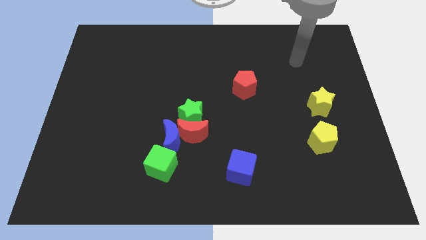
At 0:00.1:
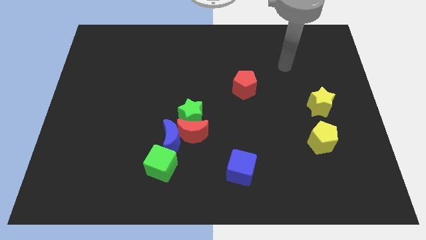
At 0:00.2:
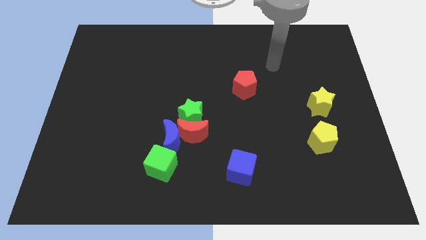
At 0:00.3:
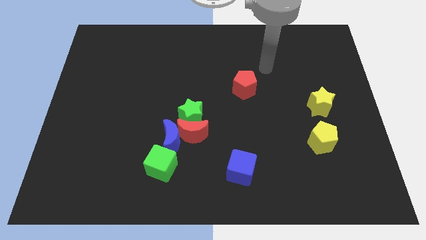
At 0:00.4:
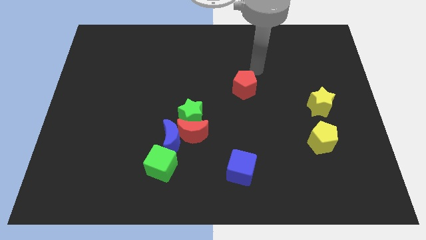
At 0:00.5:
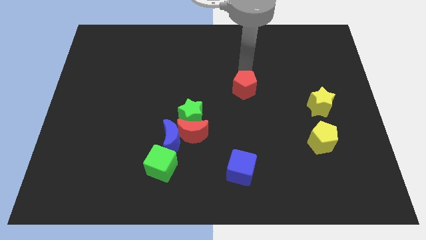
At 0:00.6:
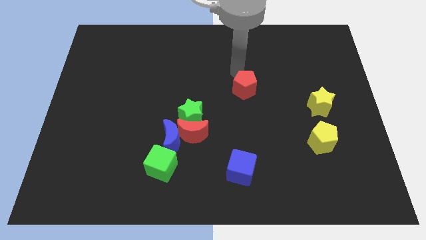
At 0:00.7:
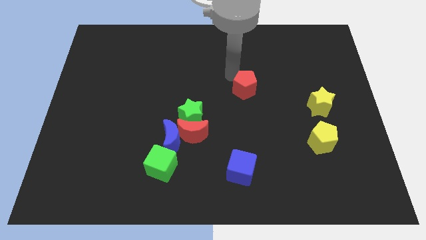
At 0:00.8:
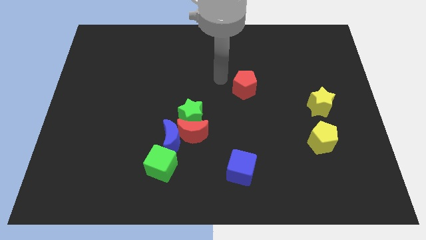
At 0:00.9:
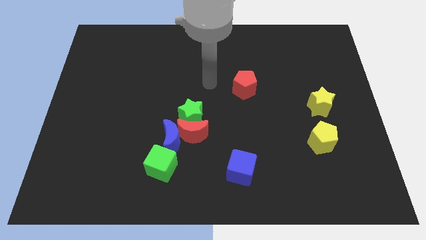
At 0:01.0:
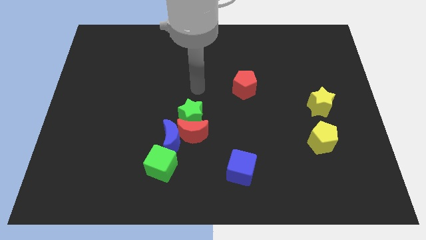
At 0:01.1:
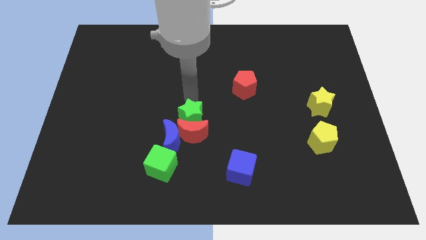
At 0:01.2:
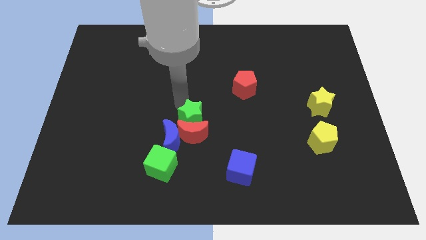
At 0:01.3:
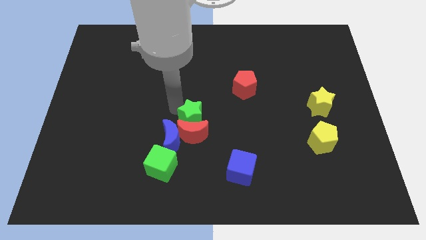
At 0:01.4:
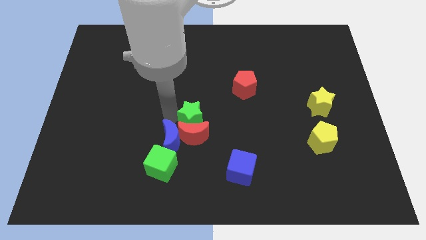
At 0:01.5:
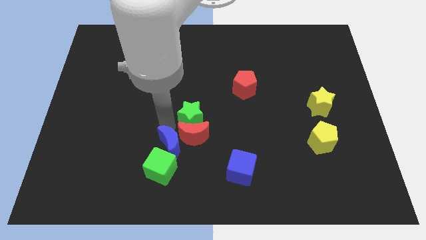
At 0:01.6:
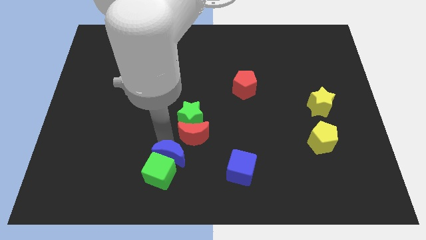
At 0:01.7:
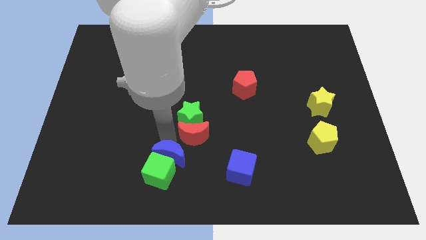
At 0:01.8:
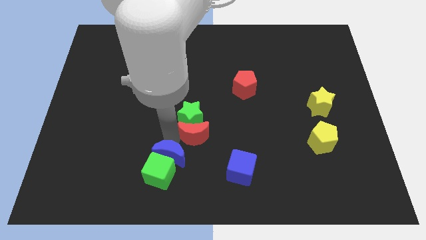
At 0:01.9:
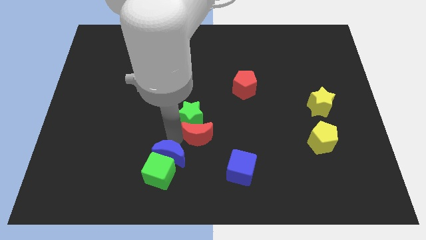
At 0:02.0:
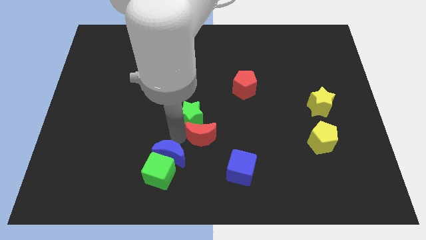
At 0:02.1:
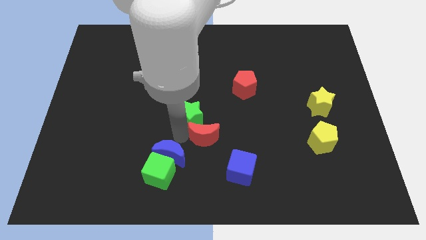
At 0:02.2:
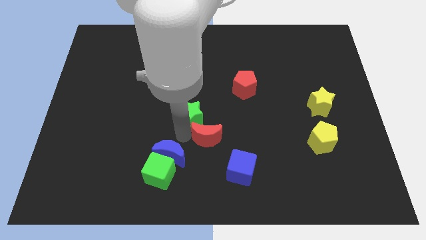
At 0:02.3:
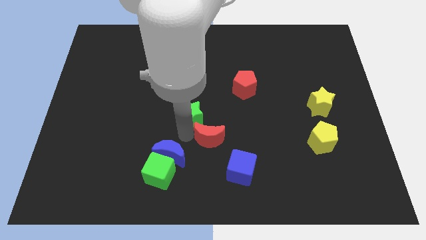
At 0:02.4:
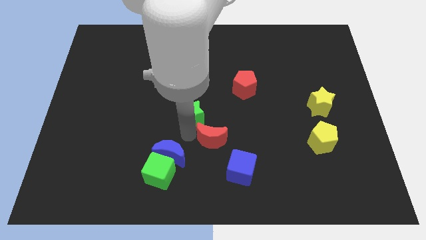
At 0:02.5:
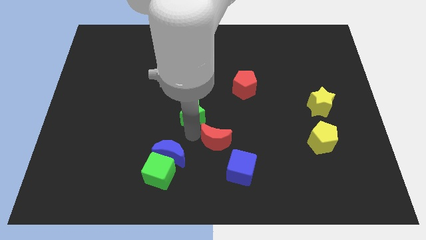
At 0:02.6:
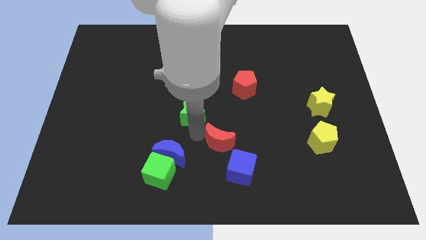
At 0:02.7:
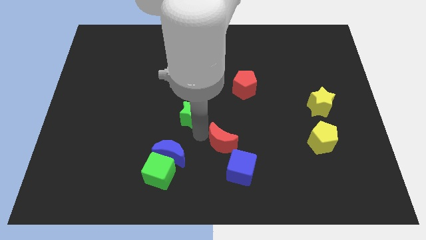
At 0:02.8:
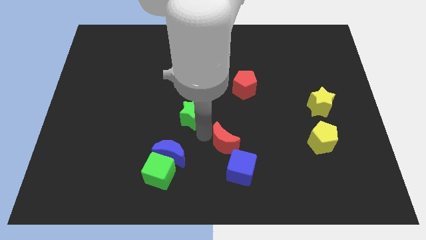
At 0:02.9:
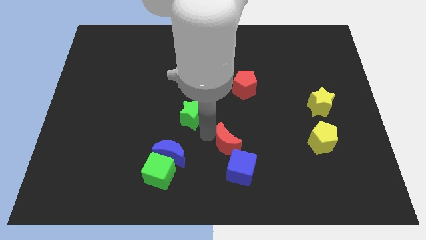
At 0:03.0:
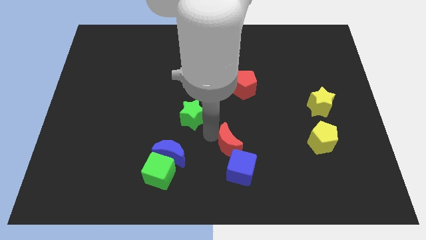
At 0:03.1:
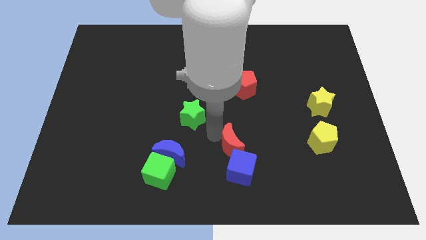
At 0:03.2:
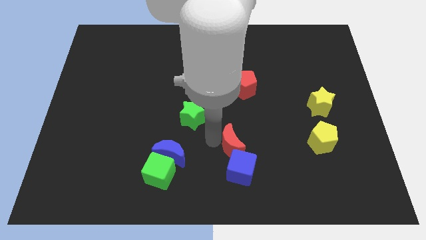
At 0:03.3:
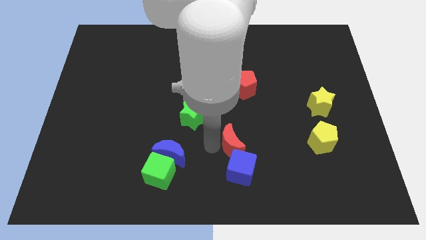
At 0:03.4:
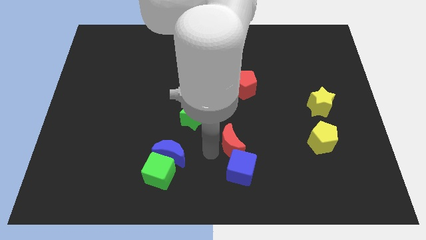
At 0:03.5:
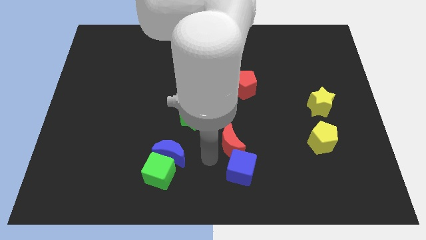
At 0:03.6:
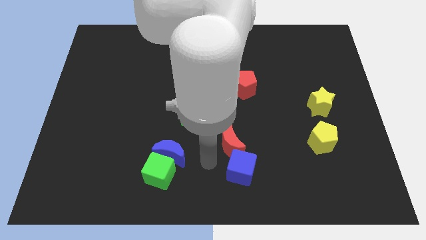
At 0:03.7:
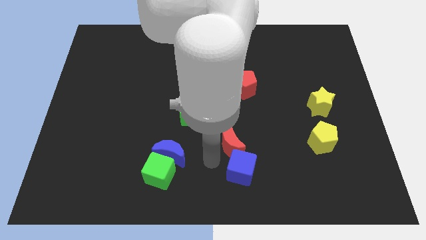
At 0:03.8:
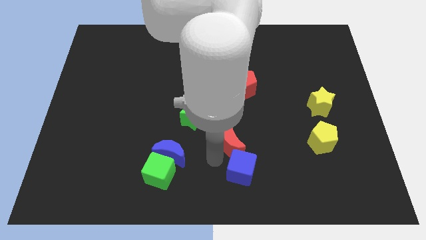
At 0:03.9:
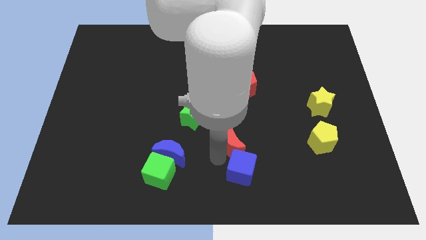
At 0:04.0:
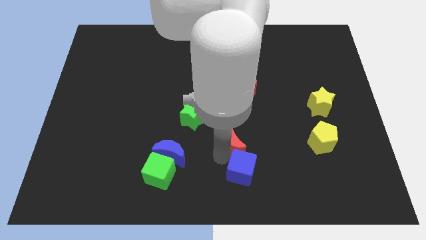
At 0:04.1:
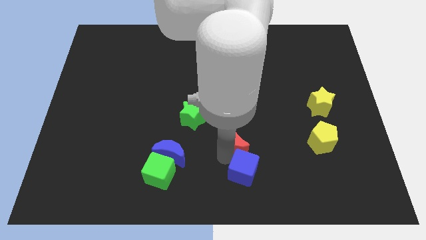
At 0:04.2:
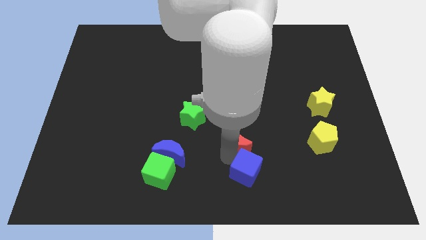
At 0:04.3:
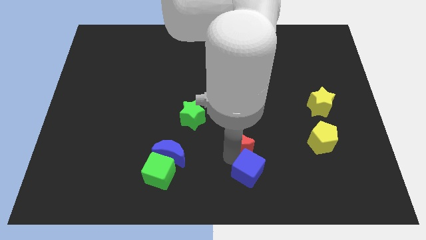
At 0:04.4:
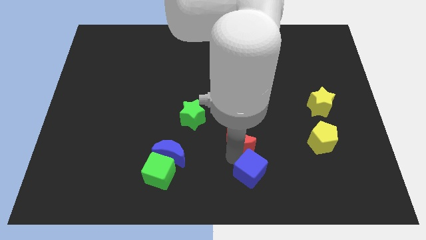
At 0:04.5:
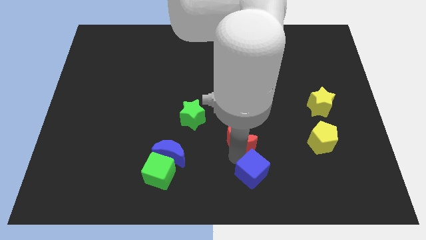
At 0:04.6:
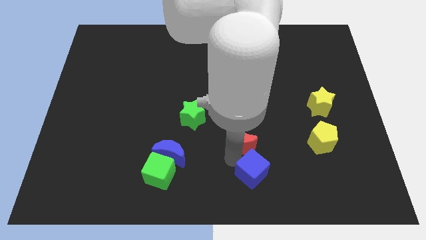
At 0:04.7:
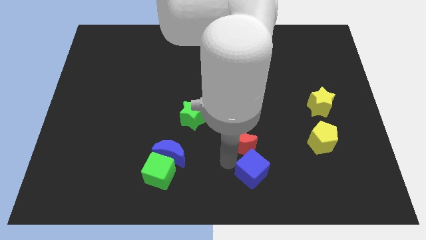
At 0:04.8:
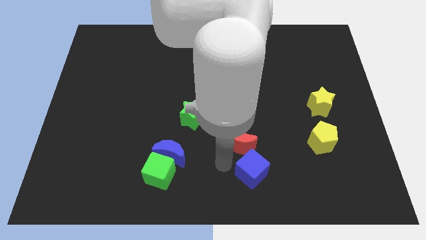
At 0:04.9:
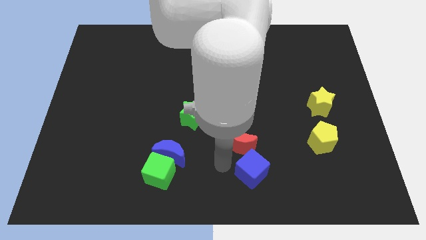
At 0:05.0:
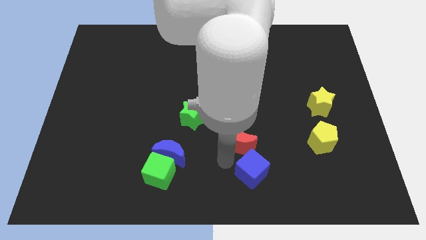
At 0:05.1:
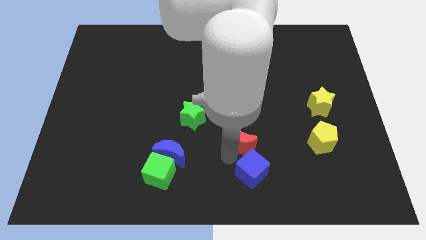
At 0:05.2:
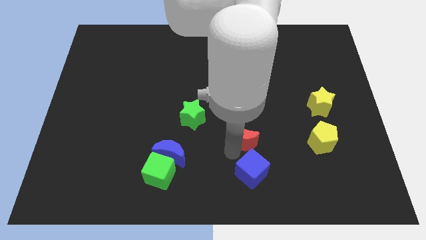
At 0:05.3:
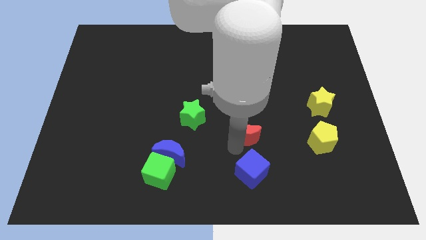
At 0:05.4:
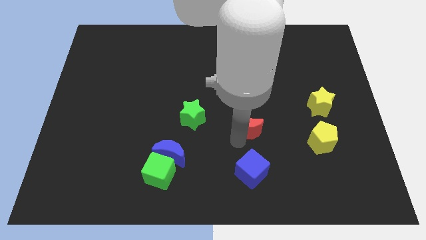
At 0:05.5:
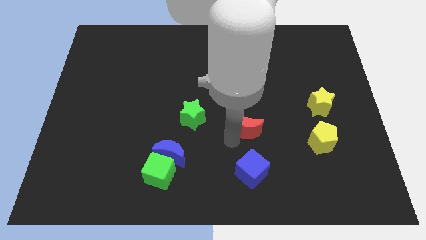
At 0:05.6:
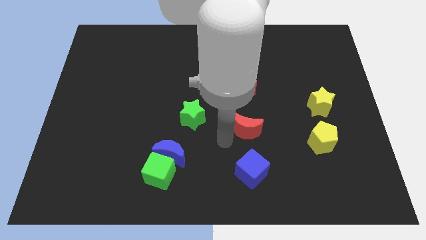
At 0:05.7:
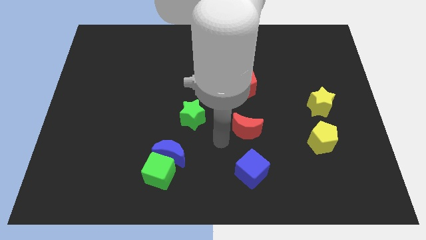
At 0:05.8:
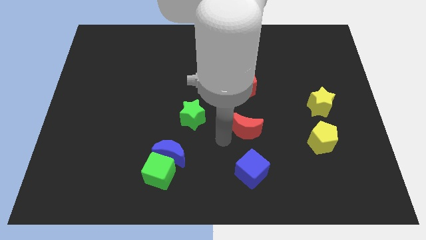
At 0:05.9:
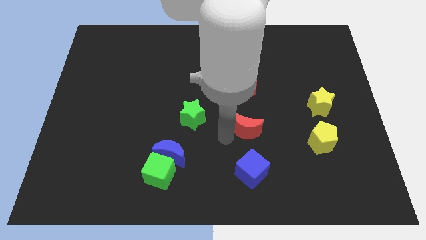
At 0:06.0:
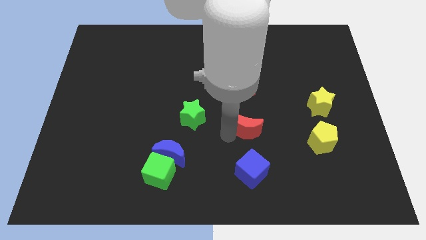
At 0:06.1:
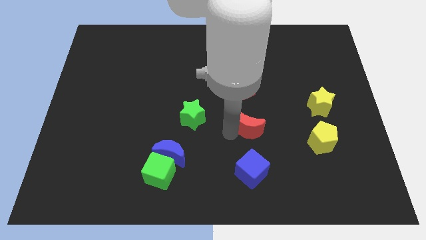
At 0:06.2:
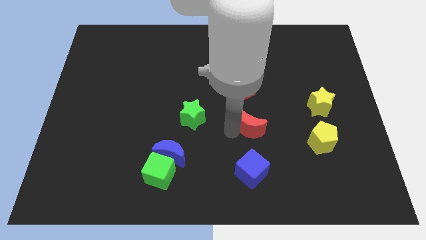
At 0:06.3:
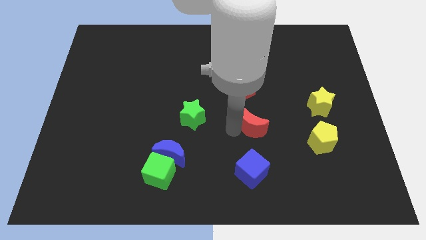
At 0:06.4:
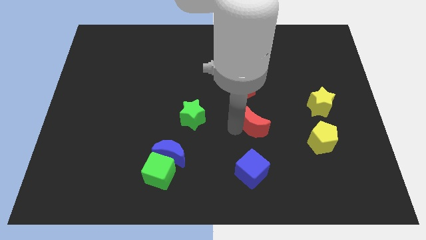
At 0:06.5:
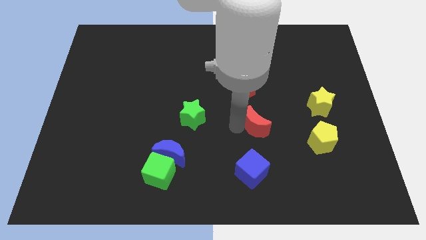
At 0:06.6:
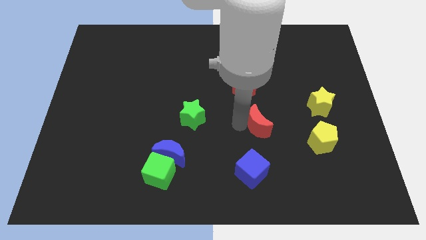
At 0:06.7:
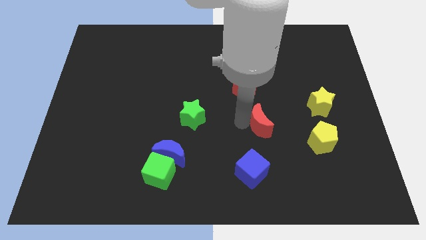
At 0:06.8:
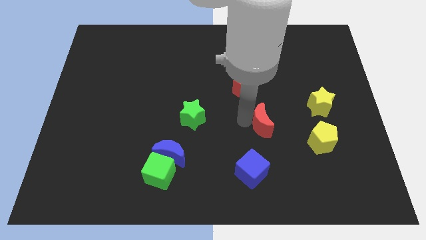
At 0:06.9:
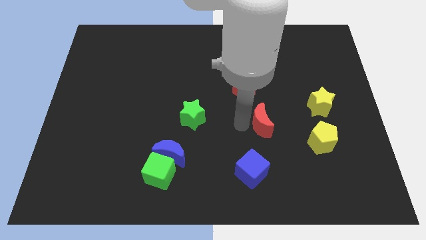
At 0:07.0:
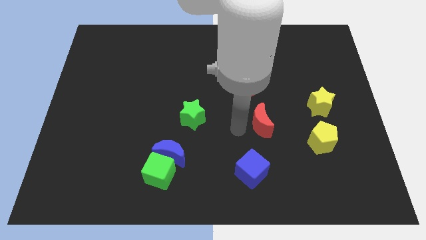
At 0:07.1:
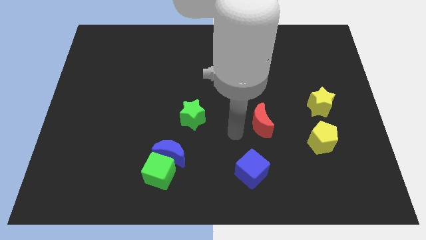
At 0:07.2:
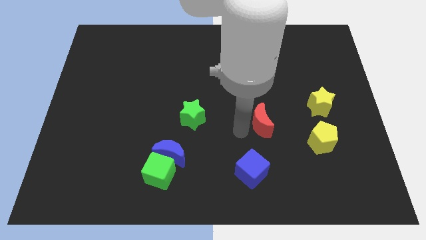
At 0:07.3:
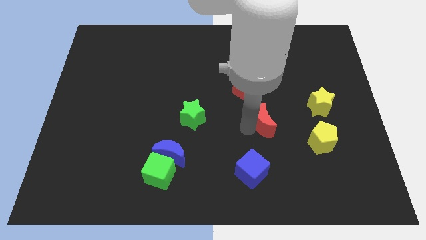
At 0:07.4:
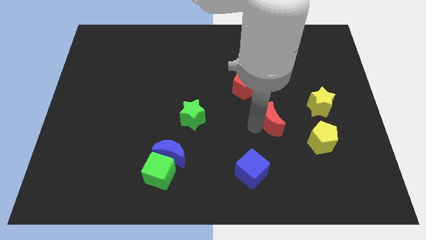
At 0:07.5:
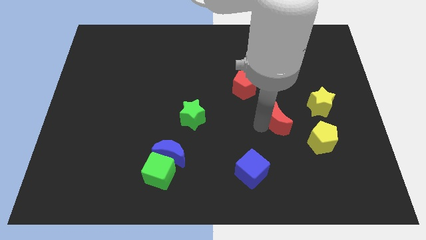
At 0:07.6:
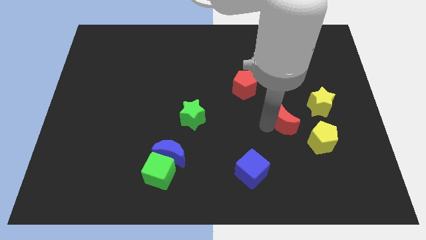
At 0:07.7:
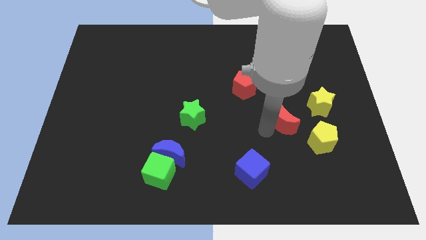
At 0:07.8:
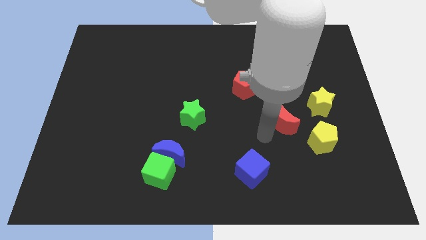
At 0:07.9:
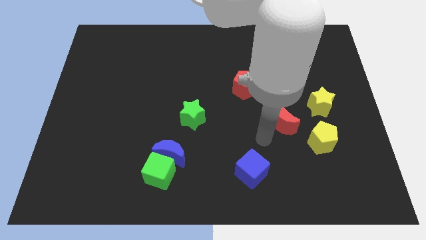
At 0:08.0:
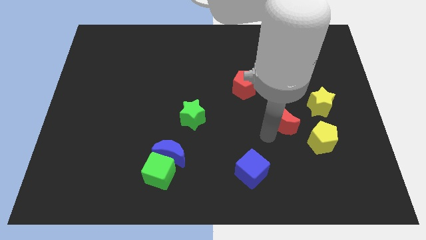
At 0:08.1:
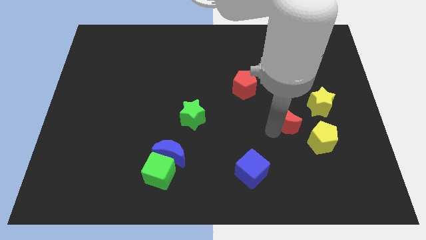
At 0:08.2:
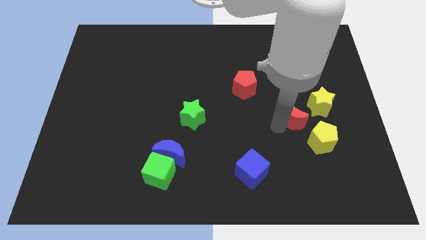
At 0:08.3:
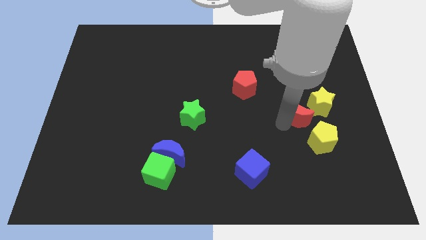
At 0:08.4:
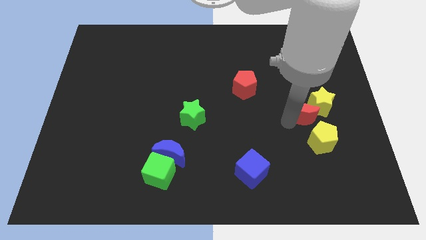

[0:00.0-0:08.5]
slide the red moon towards the yellow star
